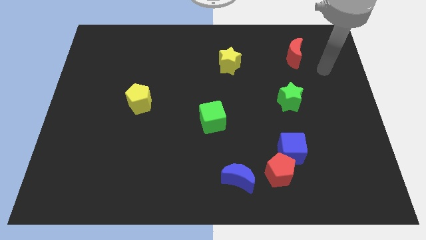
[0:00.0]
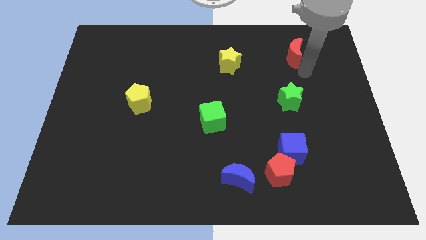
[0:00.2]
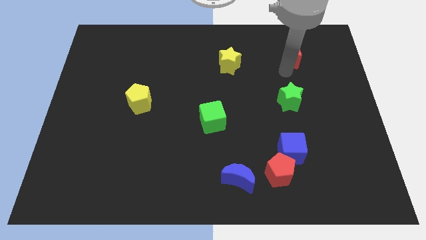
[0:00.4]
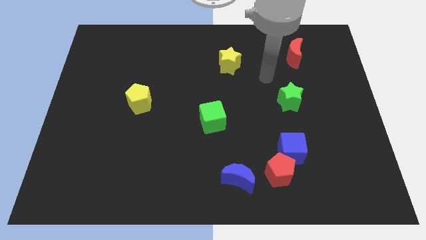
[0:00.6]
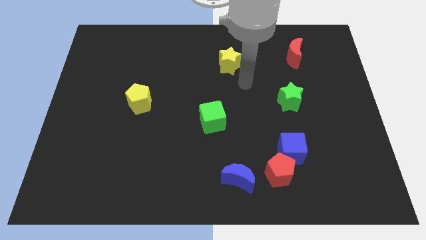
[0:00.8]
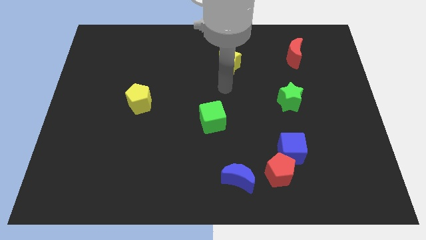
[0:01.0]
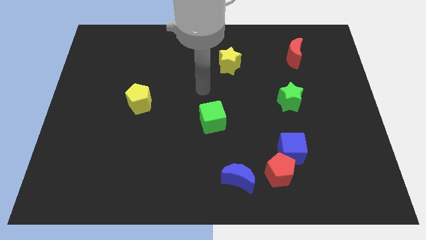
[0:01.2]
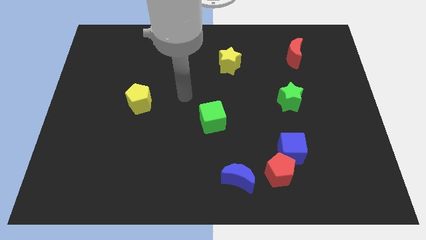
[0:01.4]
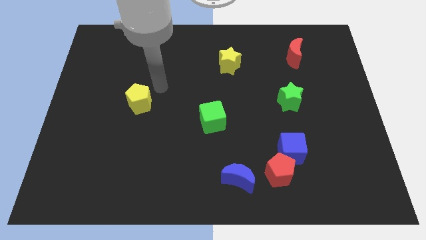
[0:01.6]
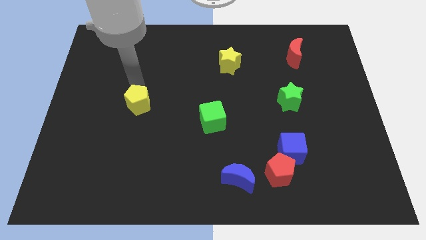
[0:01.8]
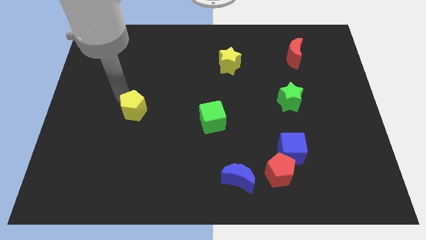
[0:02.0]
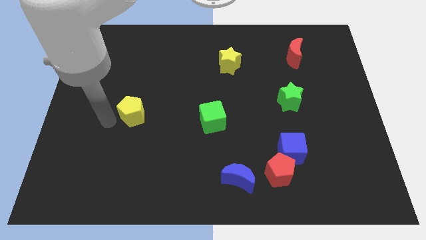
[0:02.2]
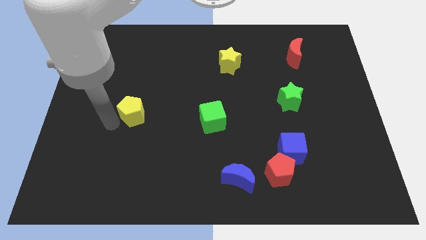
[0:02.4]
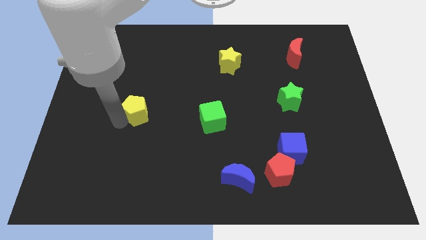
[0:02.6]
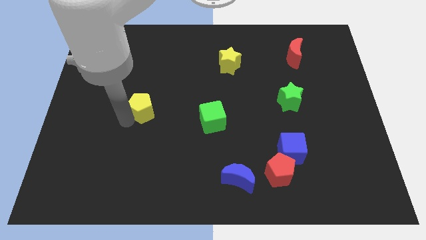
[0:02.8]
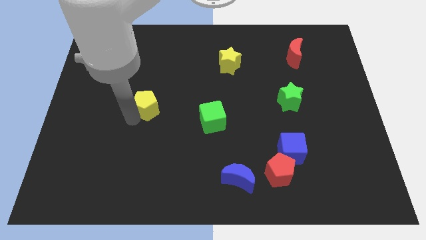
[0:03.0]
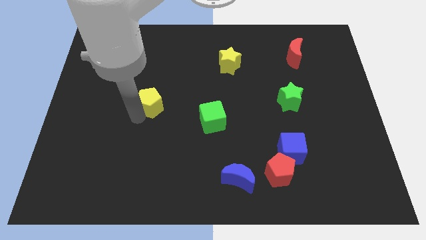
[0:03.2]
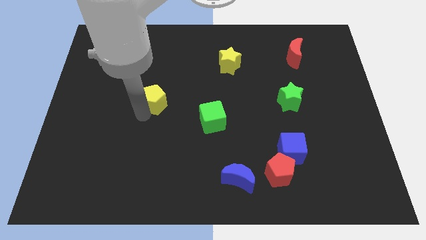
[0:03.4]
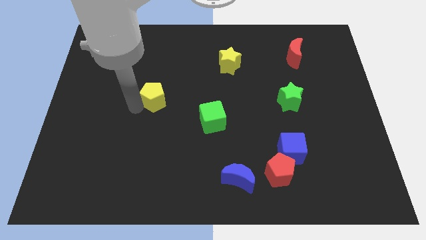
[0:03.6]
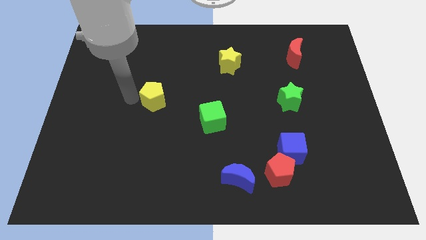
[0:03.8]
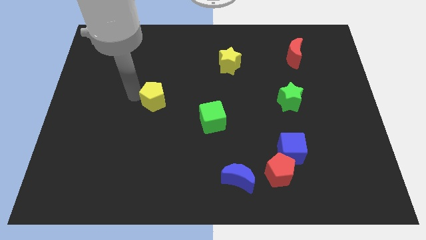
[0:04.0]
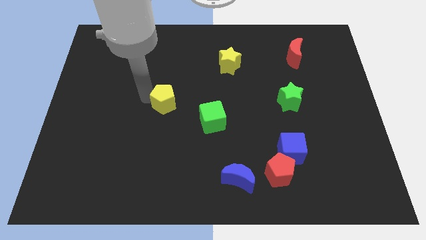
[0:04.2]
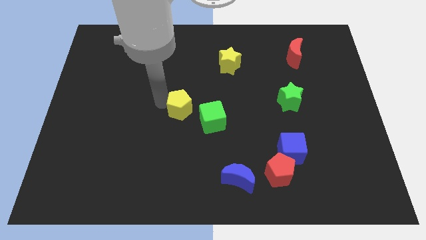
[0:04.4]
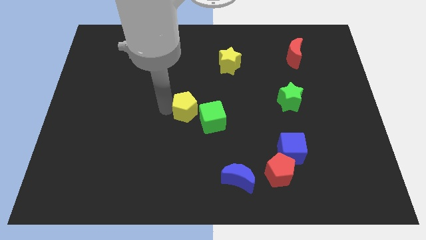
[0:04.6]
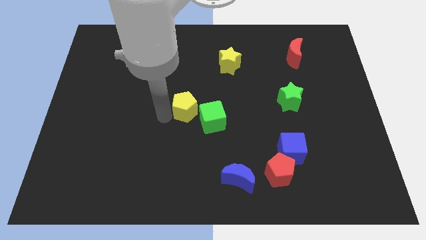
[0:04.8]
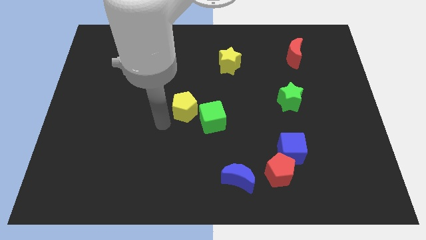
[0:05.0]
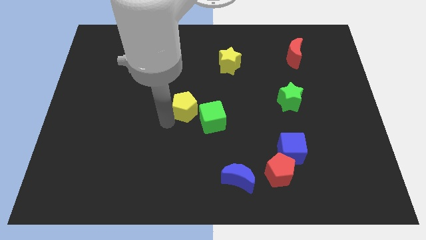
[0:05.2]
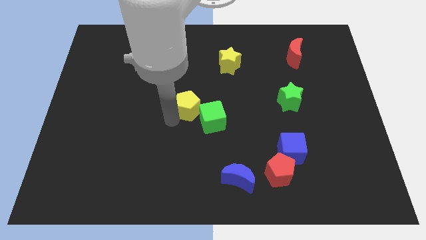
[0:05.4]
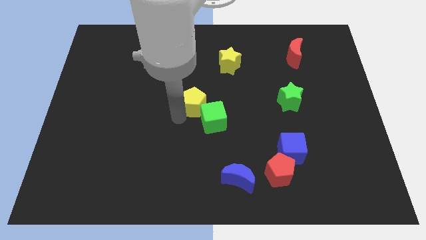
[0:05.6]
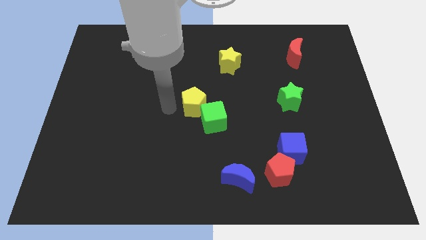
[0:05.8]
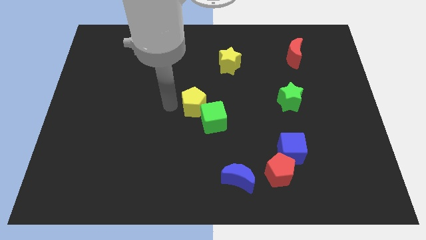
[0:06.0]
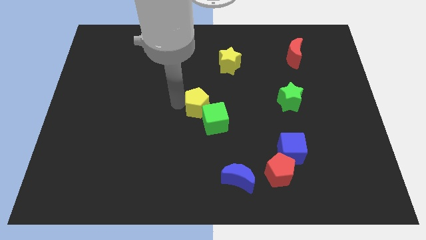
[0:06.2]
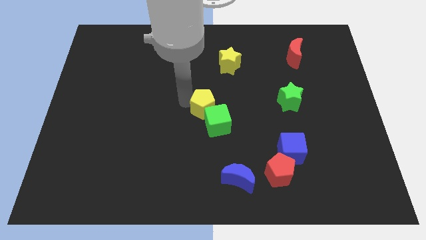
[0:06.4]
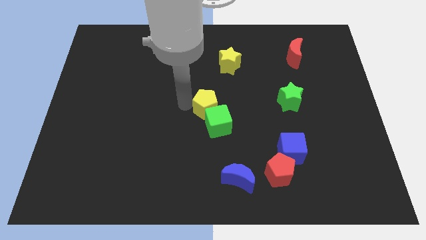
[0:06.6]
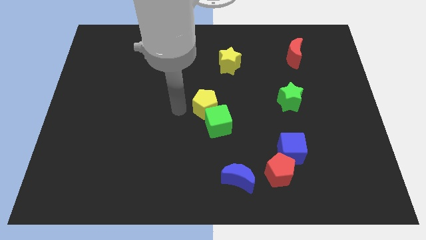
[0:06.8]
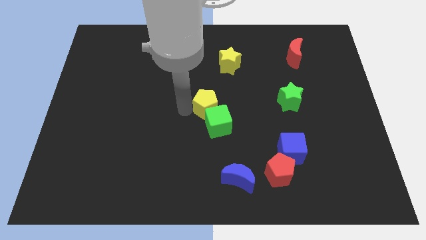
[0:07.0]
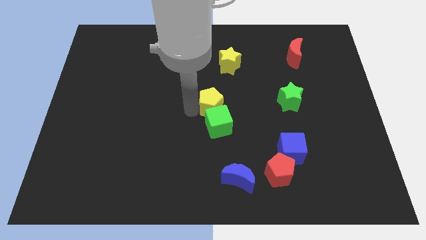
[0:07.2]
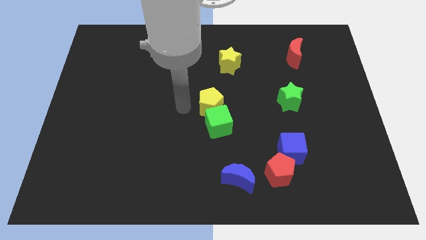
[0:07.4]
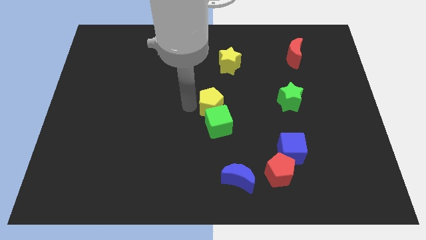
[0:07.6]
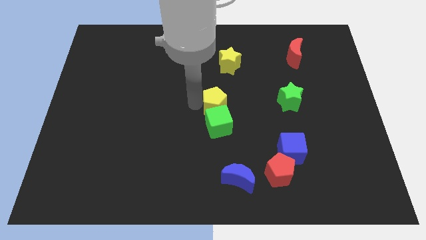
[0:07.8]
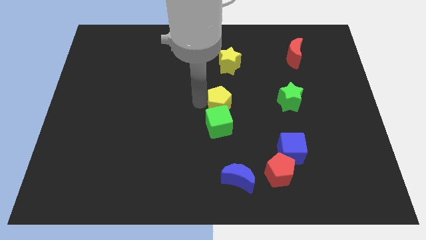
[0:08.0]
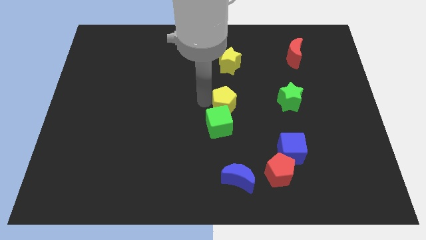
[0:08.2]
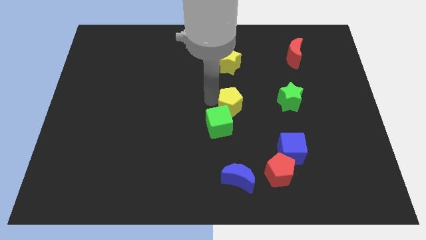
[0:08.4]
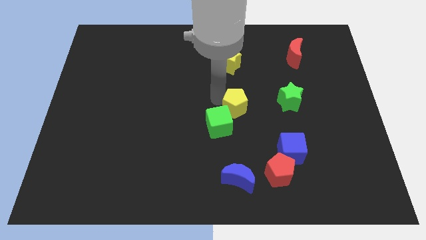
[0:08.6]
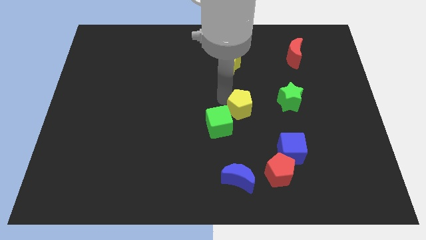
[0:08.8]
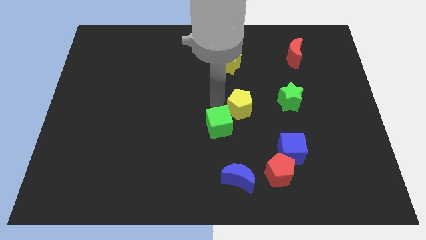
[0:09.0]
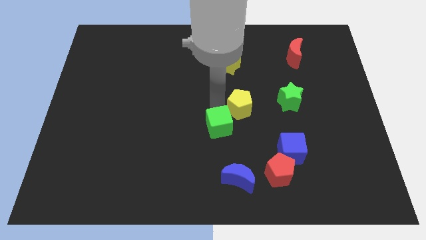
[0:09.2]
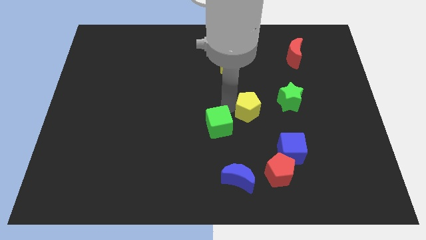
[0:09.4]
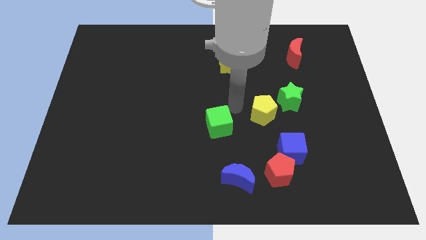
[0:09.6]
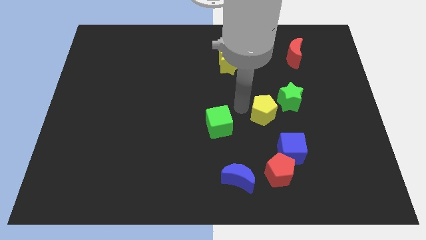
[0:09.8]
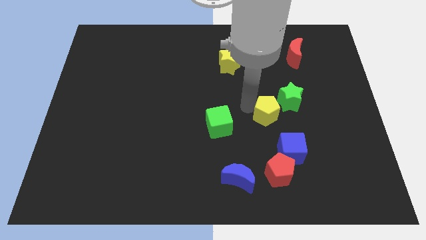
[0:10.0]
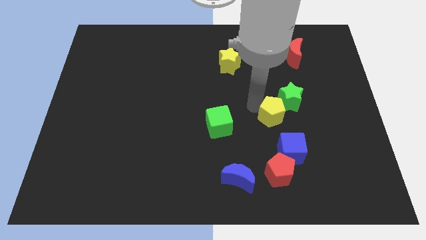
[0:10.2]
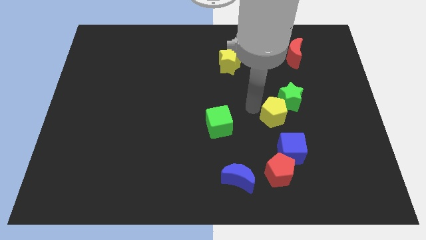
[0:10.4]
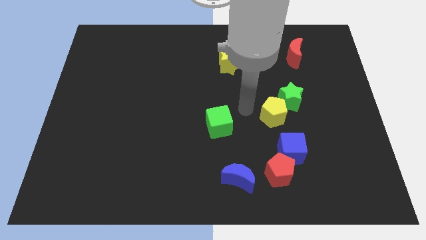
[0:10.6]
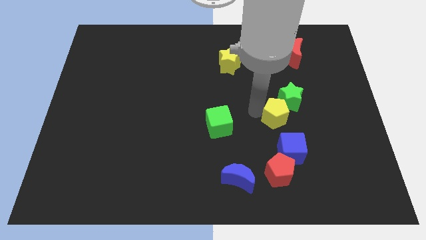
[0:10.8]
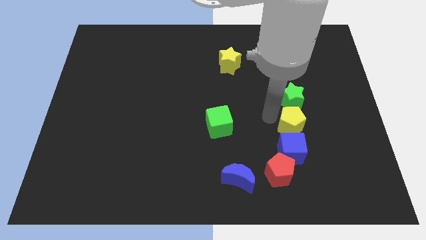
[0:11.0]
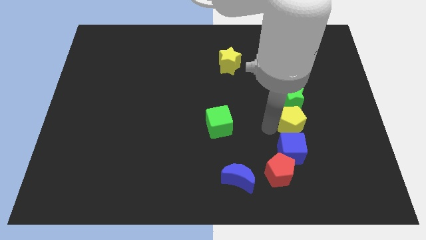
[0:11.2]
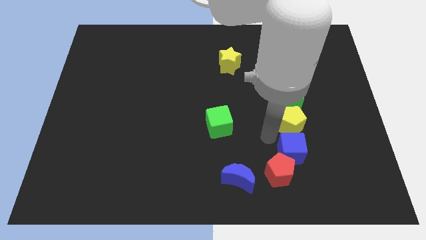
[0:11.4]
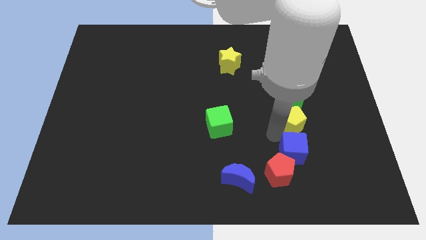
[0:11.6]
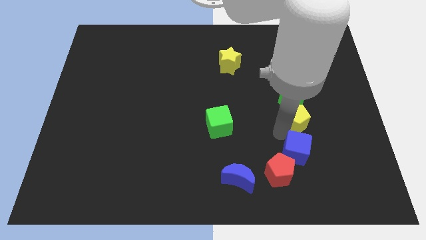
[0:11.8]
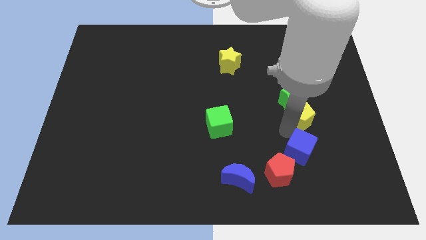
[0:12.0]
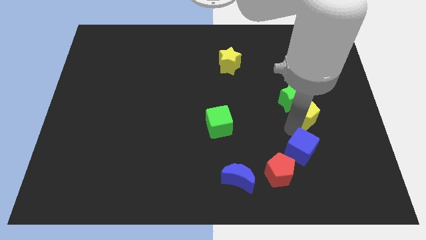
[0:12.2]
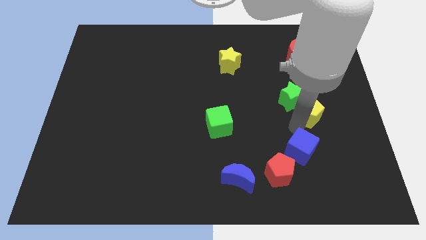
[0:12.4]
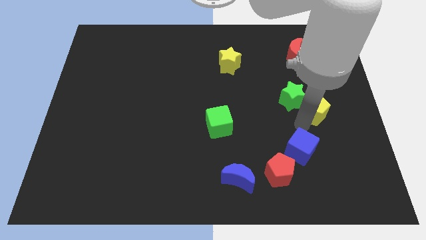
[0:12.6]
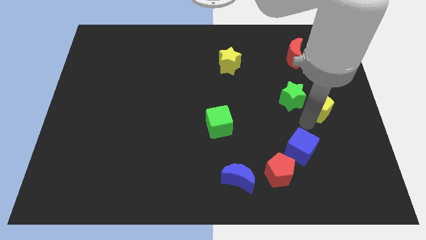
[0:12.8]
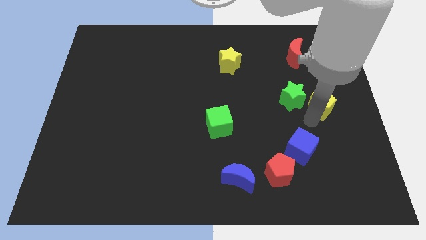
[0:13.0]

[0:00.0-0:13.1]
push the yellow pentagon to the right side of the board

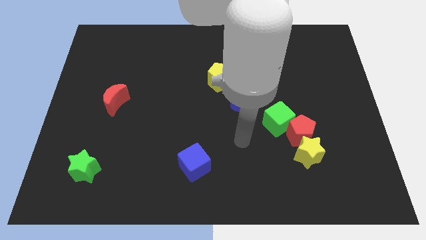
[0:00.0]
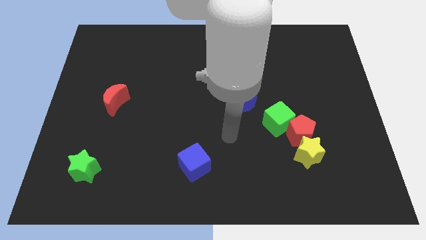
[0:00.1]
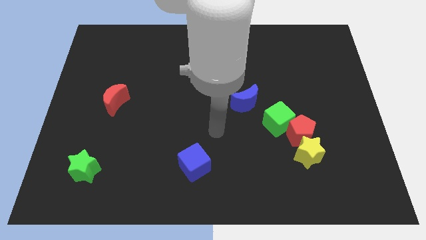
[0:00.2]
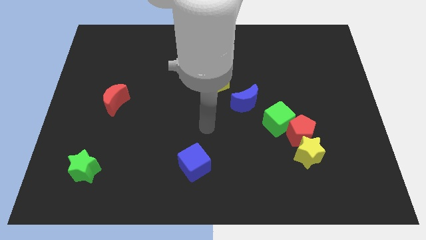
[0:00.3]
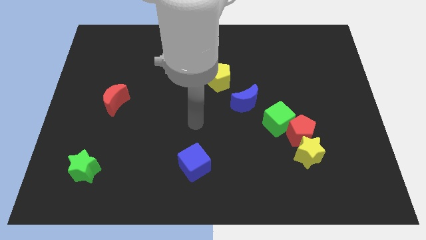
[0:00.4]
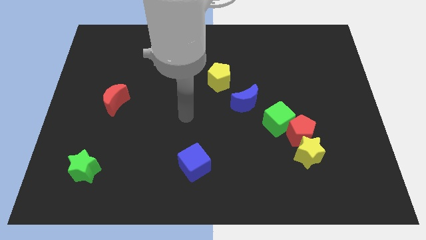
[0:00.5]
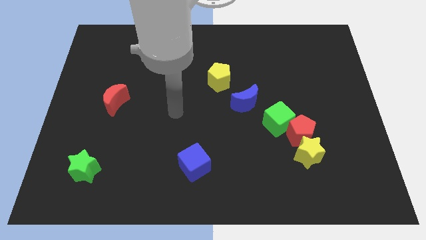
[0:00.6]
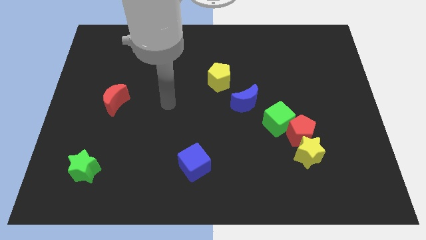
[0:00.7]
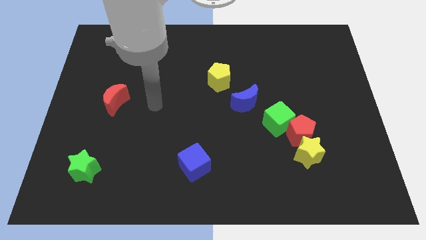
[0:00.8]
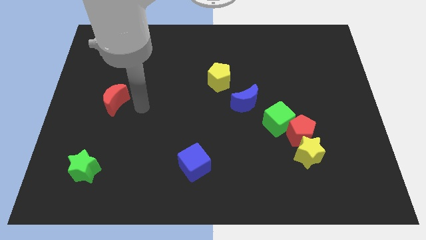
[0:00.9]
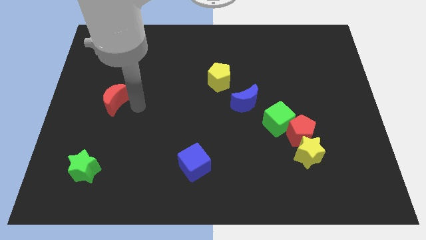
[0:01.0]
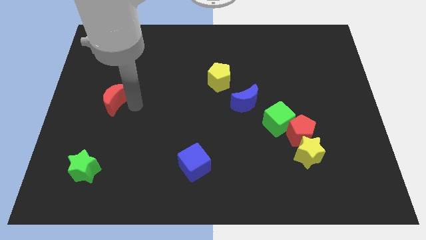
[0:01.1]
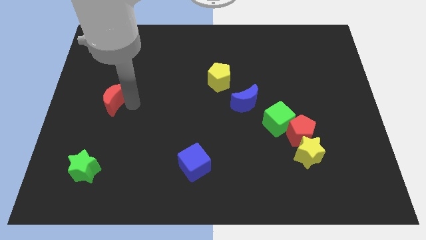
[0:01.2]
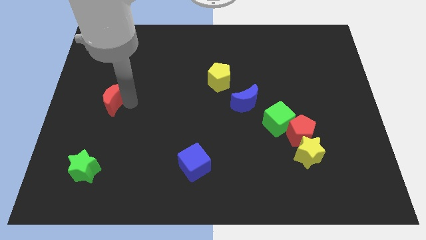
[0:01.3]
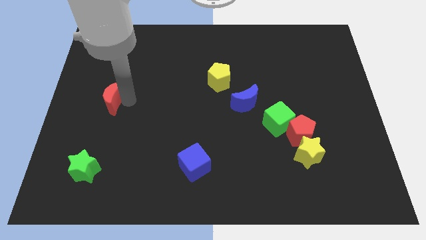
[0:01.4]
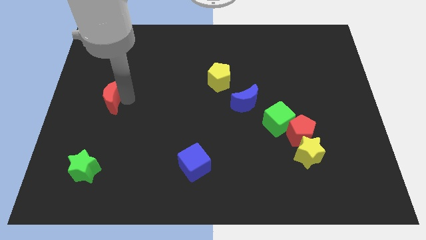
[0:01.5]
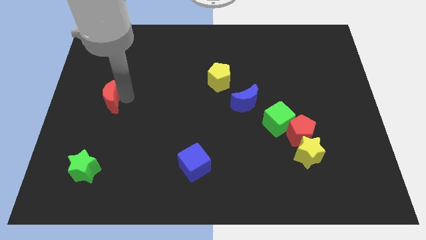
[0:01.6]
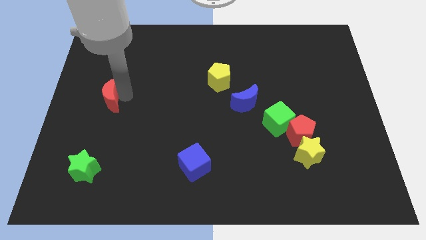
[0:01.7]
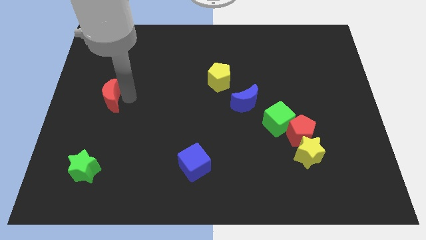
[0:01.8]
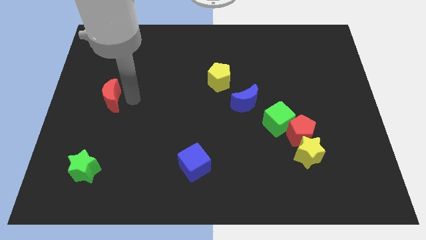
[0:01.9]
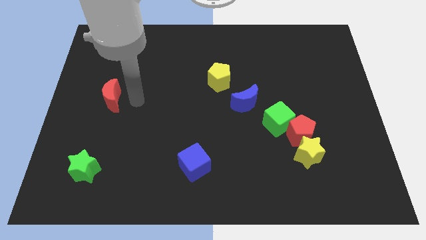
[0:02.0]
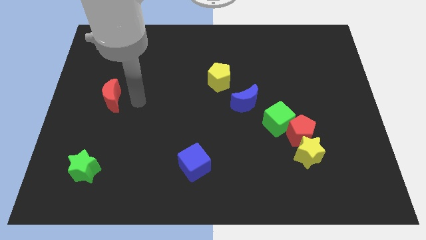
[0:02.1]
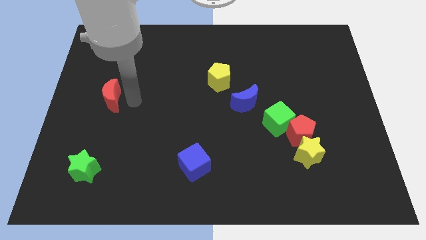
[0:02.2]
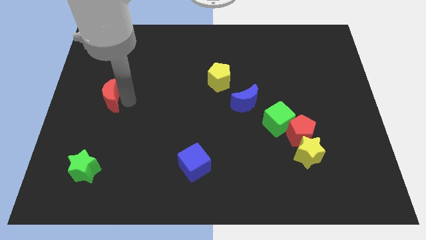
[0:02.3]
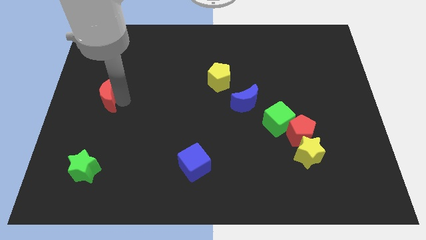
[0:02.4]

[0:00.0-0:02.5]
push the red moon to the left side of the board
